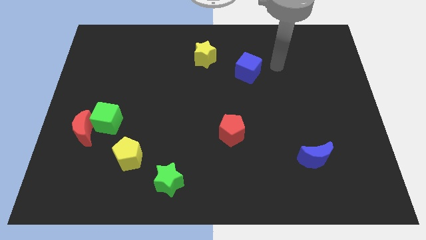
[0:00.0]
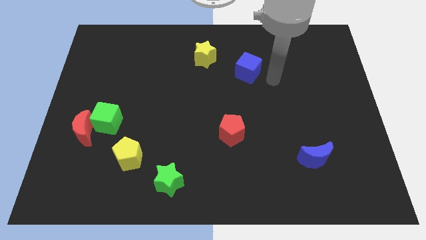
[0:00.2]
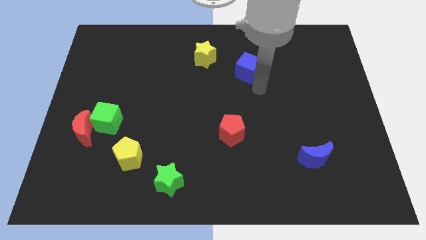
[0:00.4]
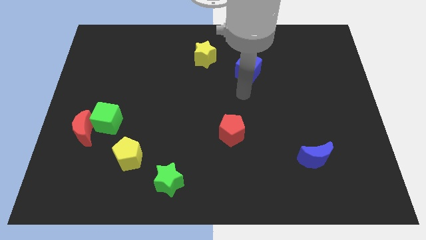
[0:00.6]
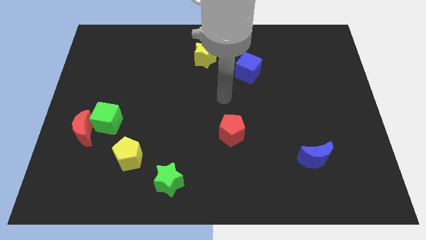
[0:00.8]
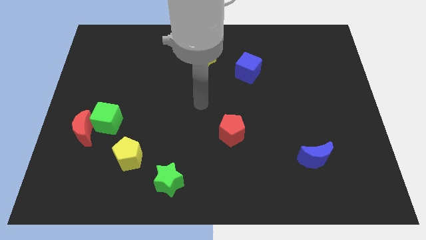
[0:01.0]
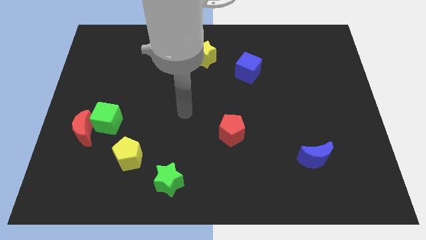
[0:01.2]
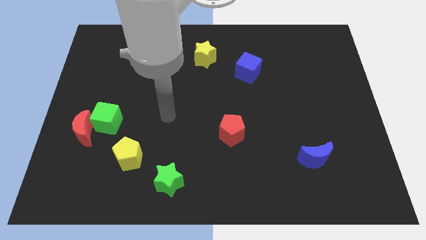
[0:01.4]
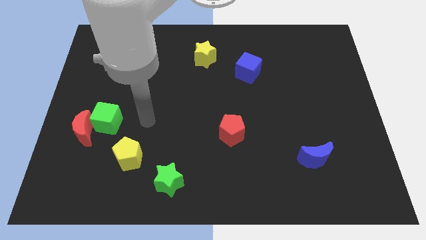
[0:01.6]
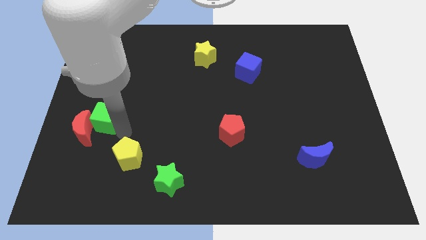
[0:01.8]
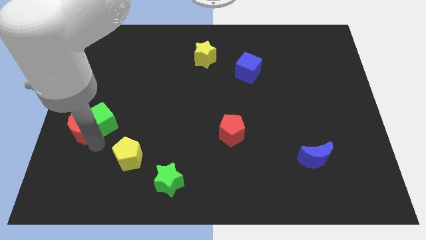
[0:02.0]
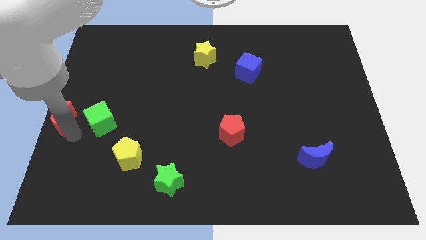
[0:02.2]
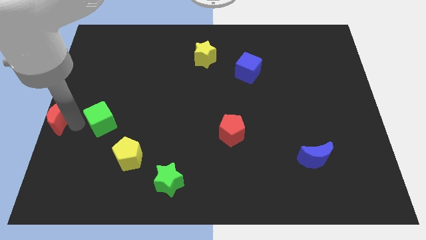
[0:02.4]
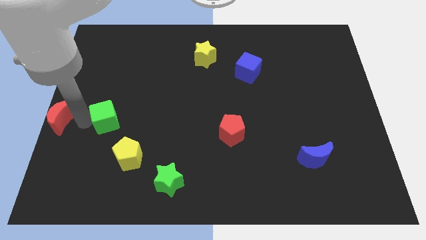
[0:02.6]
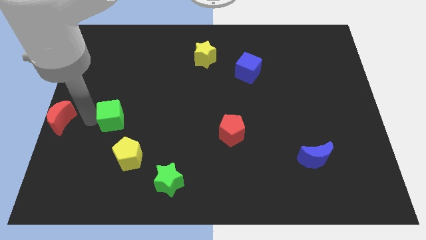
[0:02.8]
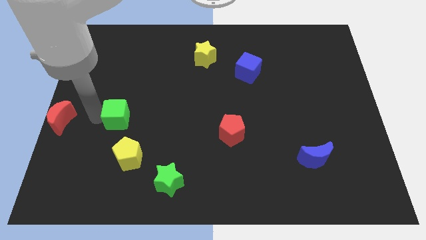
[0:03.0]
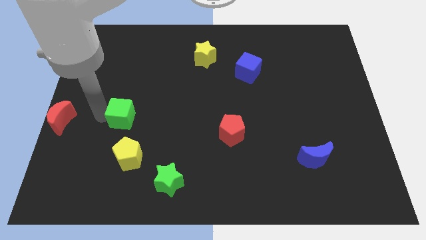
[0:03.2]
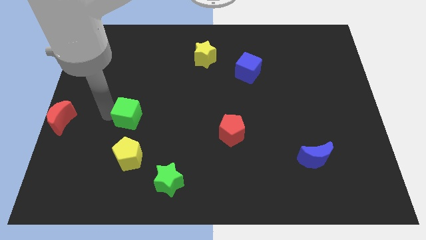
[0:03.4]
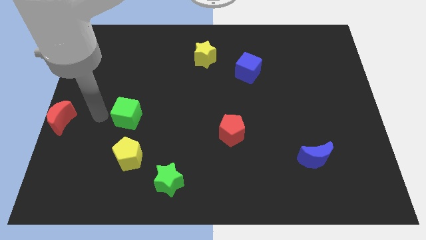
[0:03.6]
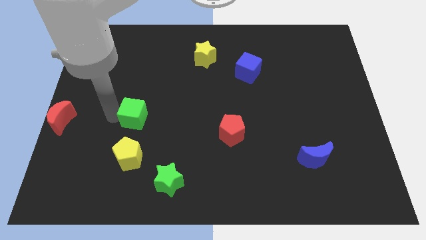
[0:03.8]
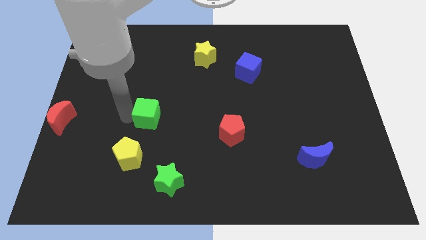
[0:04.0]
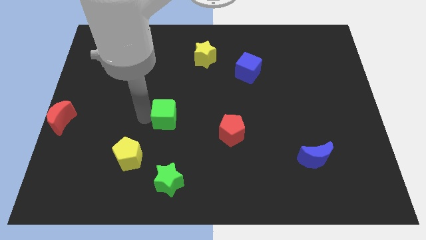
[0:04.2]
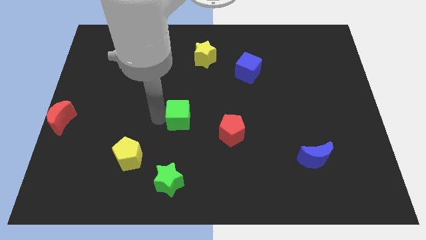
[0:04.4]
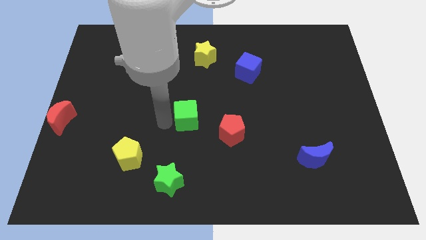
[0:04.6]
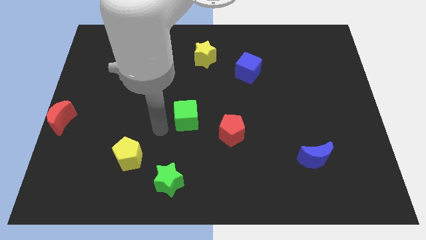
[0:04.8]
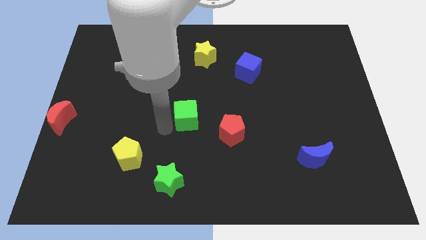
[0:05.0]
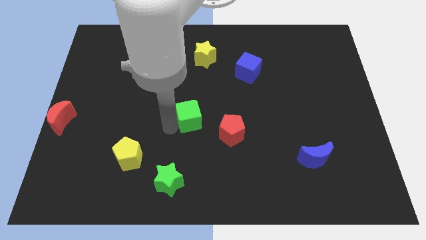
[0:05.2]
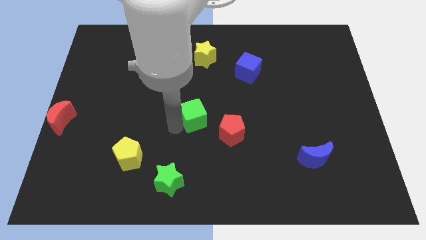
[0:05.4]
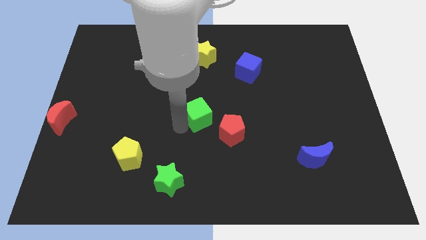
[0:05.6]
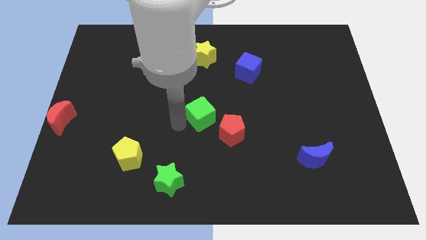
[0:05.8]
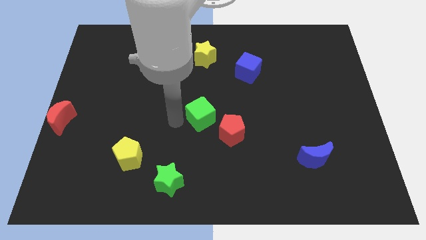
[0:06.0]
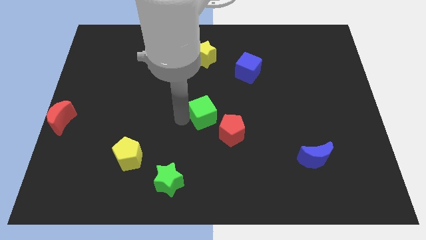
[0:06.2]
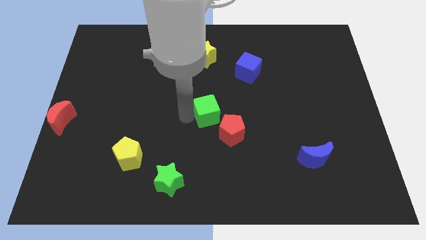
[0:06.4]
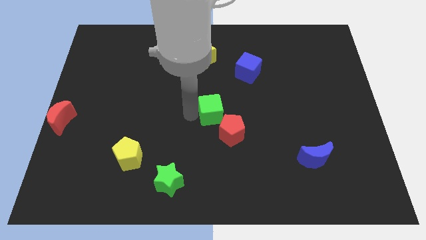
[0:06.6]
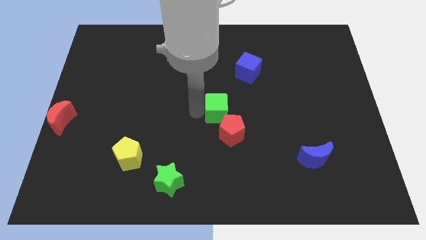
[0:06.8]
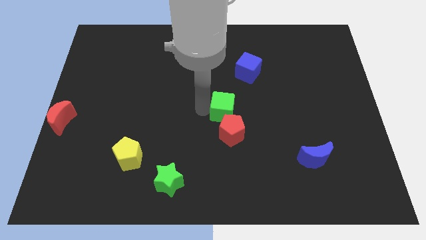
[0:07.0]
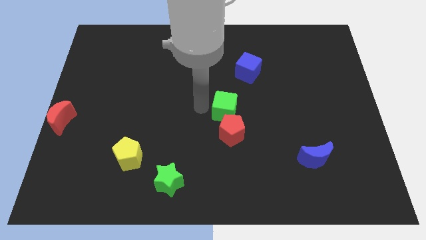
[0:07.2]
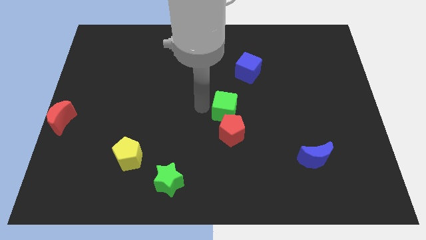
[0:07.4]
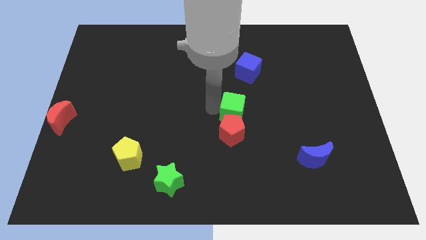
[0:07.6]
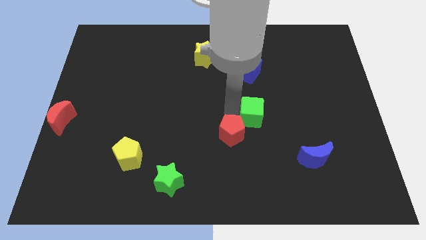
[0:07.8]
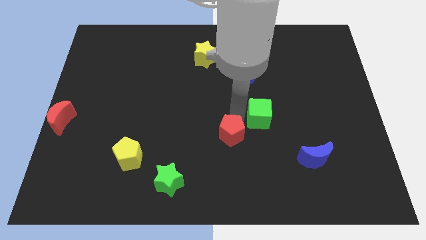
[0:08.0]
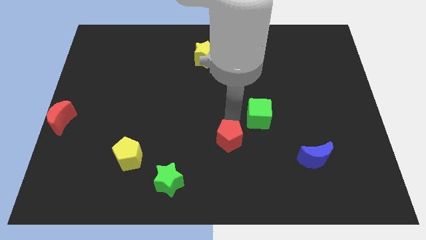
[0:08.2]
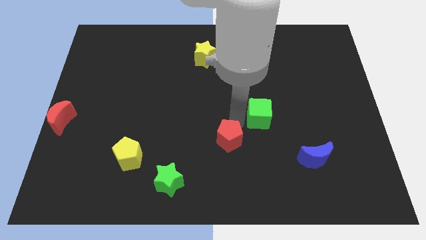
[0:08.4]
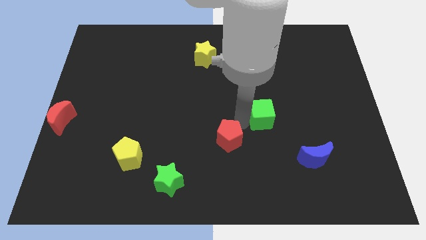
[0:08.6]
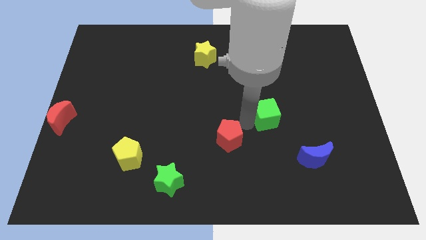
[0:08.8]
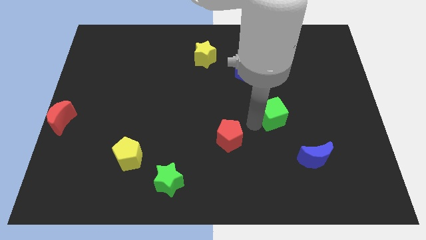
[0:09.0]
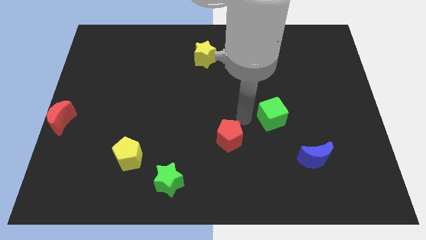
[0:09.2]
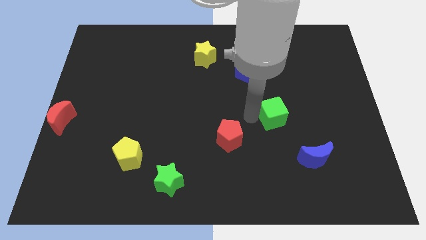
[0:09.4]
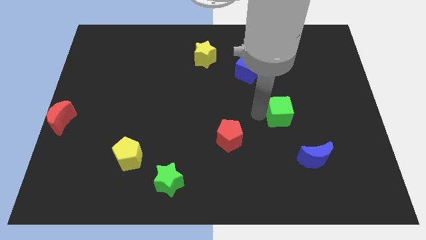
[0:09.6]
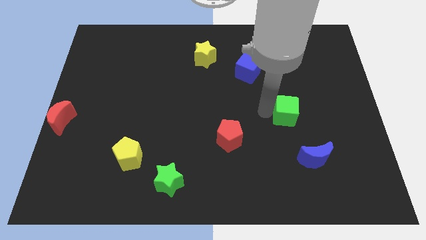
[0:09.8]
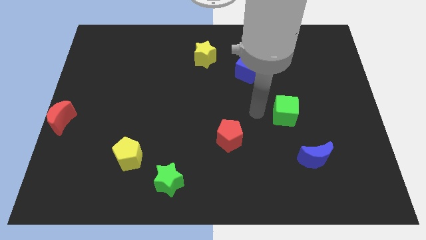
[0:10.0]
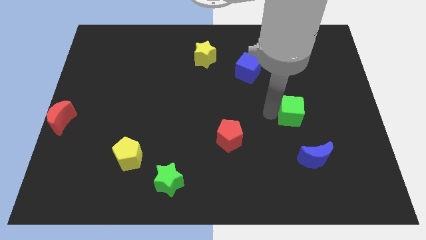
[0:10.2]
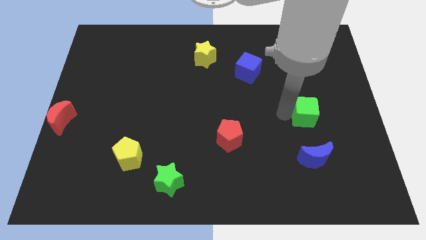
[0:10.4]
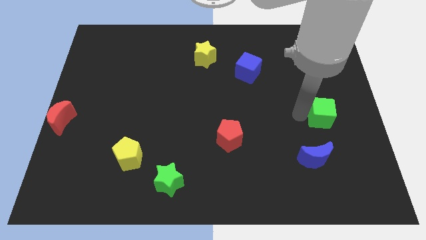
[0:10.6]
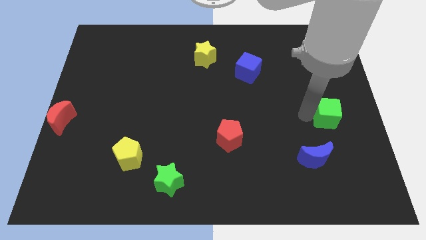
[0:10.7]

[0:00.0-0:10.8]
move the green cube to the right side

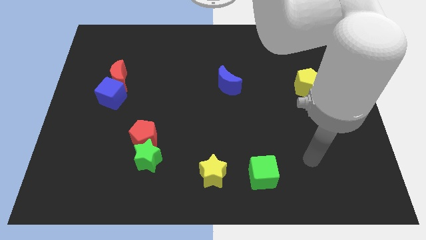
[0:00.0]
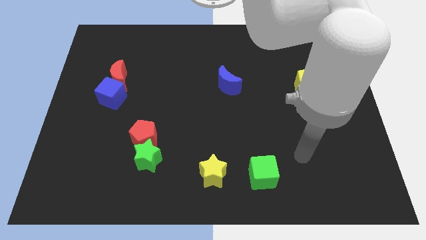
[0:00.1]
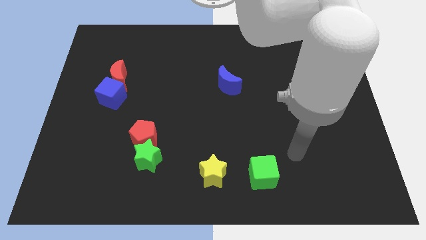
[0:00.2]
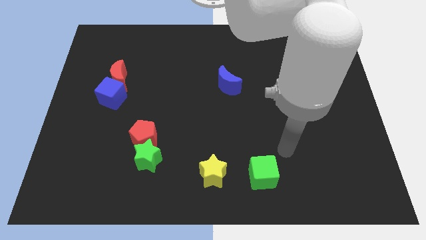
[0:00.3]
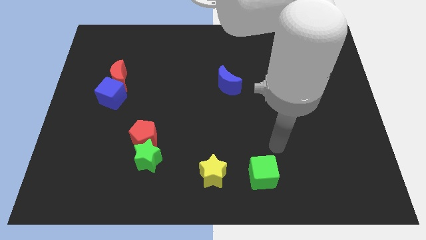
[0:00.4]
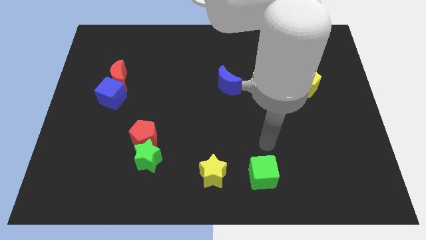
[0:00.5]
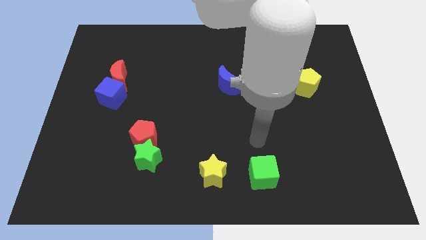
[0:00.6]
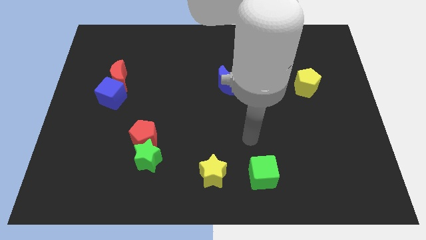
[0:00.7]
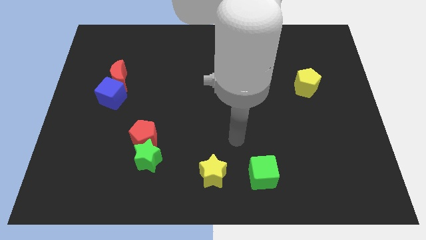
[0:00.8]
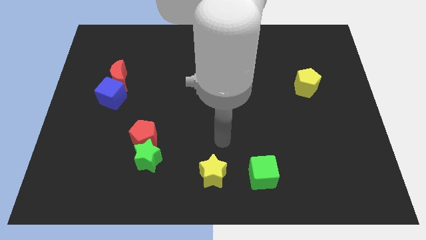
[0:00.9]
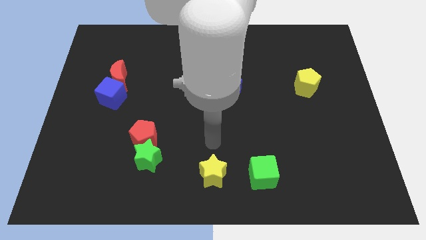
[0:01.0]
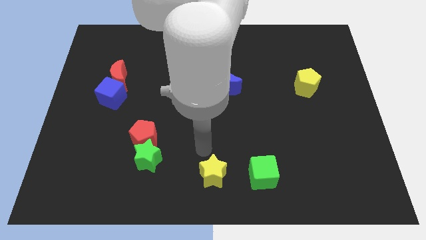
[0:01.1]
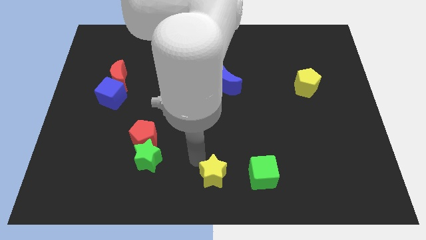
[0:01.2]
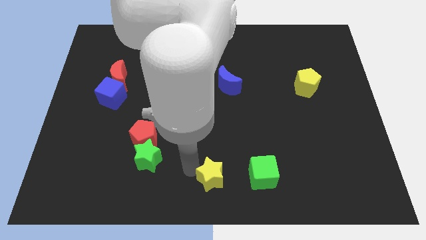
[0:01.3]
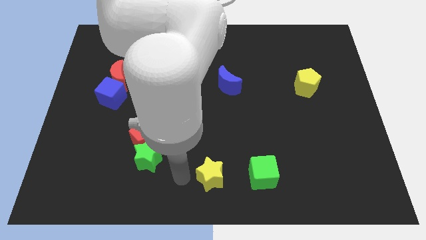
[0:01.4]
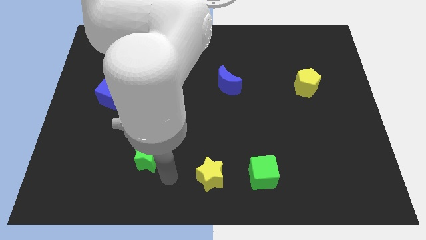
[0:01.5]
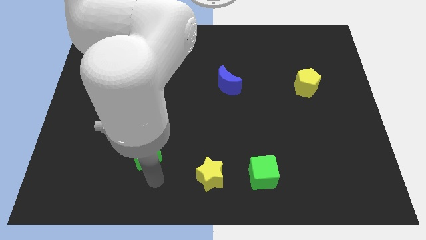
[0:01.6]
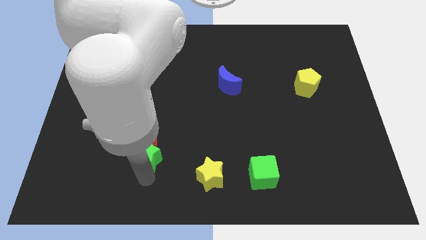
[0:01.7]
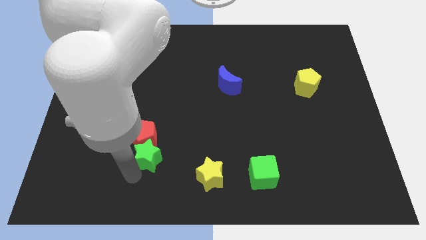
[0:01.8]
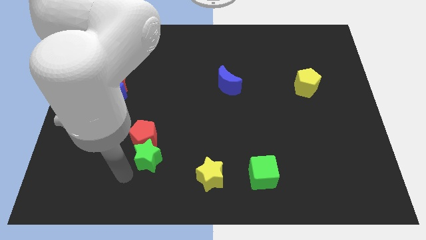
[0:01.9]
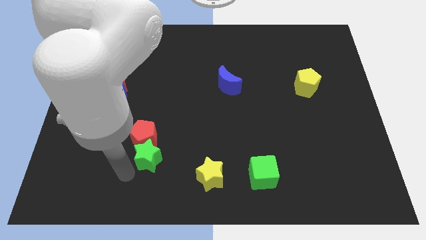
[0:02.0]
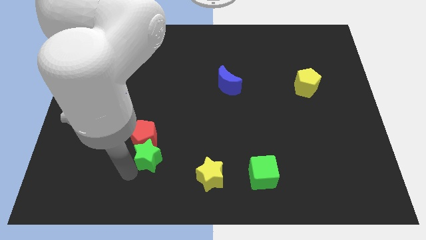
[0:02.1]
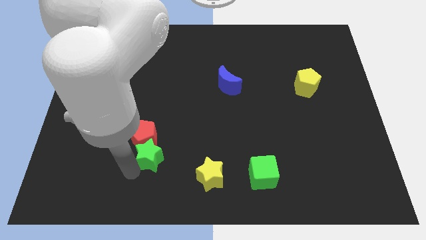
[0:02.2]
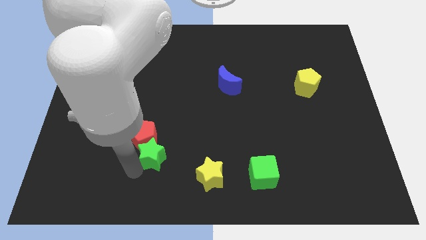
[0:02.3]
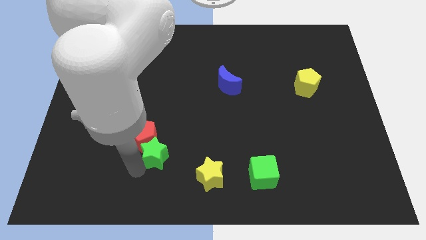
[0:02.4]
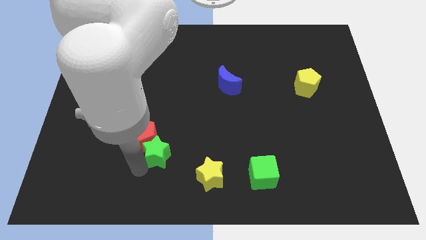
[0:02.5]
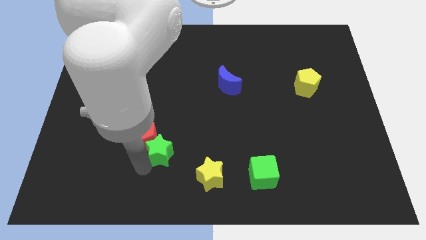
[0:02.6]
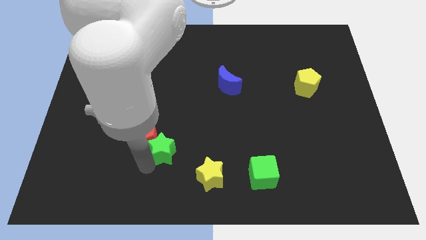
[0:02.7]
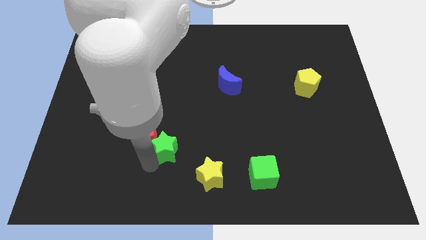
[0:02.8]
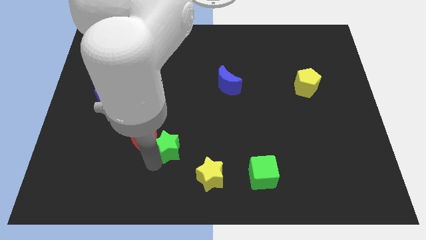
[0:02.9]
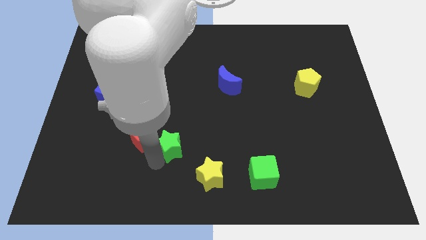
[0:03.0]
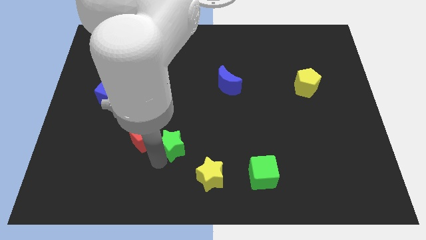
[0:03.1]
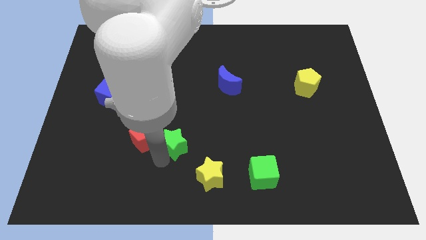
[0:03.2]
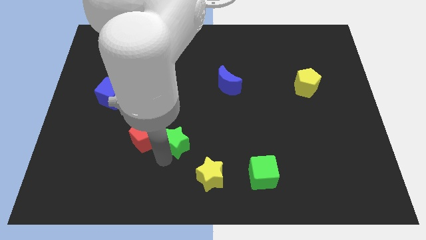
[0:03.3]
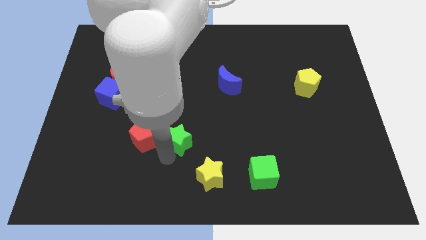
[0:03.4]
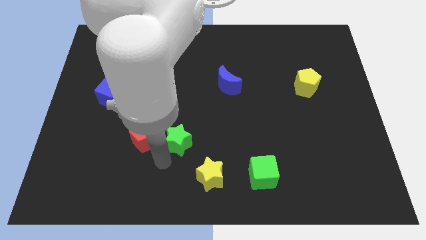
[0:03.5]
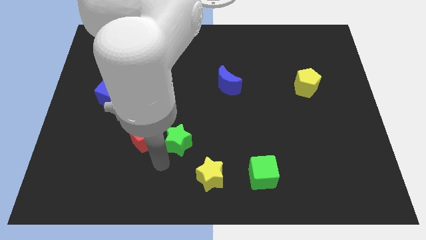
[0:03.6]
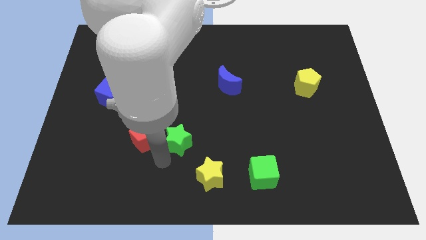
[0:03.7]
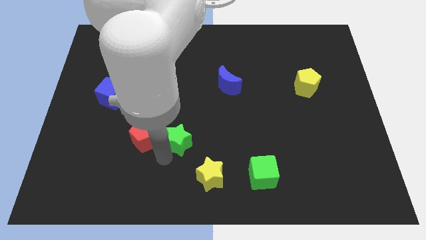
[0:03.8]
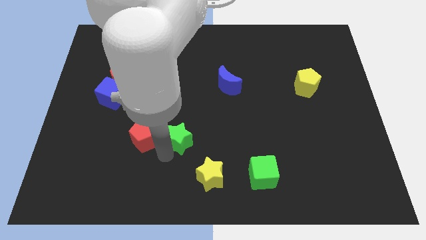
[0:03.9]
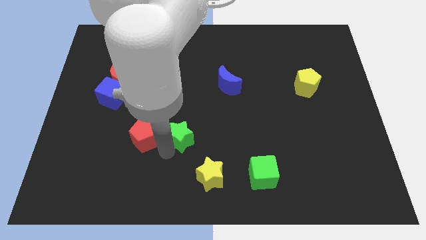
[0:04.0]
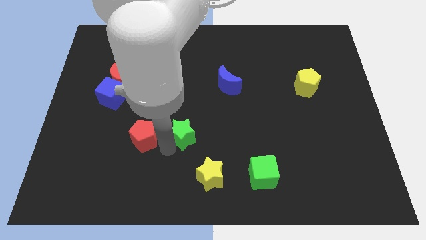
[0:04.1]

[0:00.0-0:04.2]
put the green star to the center
